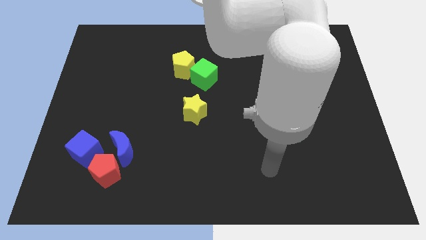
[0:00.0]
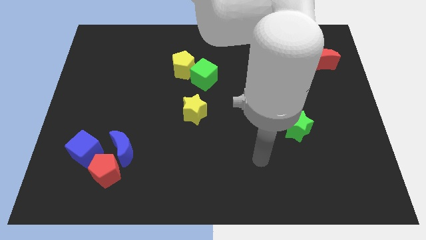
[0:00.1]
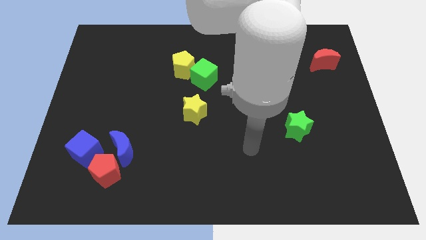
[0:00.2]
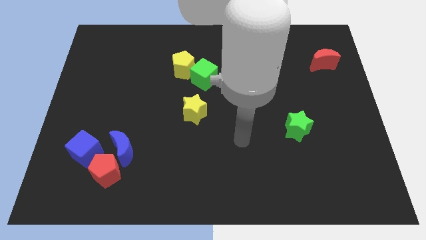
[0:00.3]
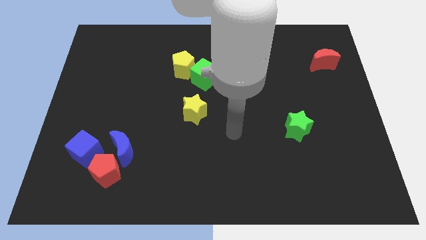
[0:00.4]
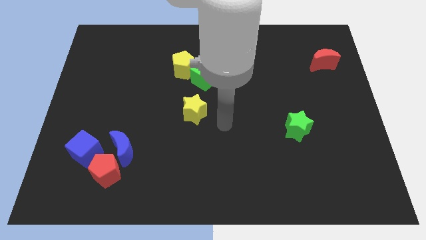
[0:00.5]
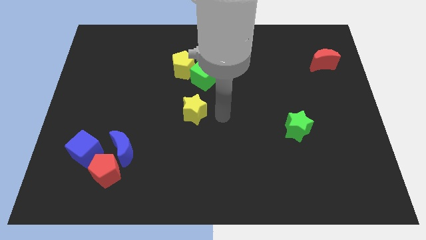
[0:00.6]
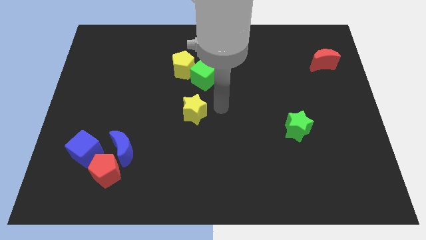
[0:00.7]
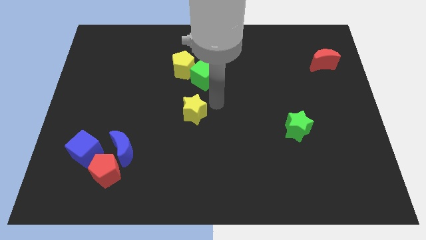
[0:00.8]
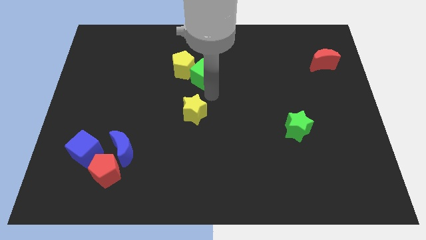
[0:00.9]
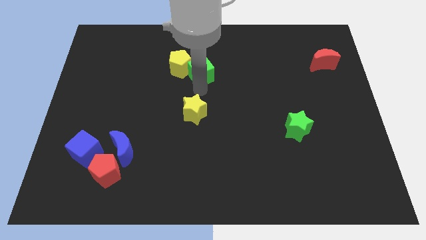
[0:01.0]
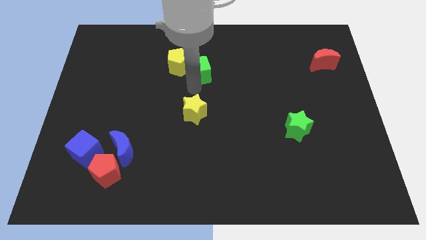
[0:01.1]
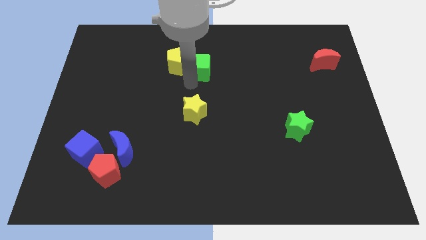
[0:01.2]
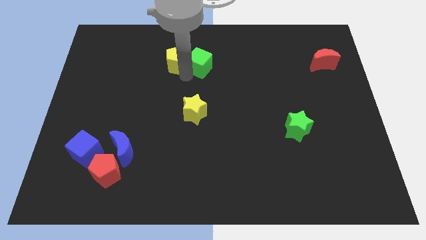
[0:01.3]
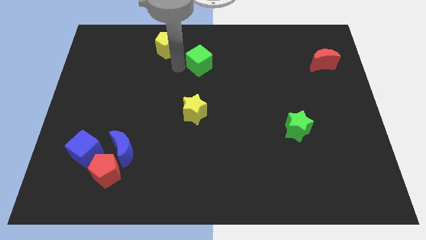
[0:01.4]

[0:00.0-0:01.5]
separate the green cube from the yellow pentagon

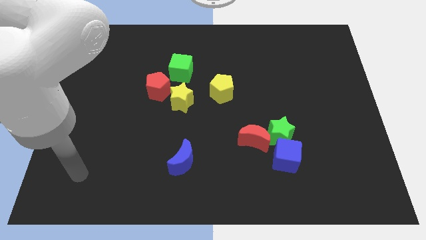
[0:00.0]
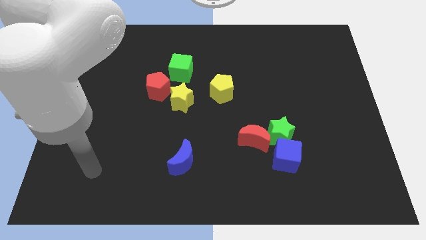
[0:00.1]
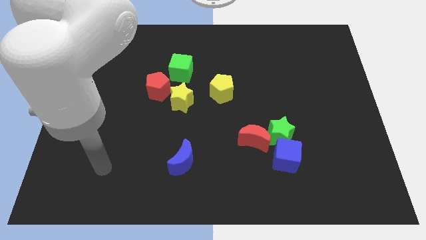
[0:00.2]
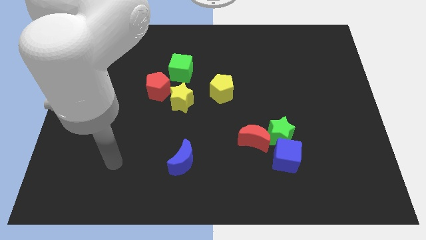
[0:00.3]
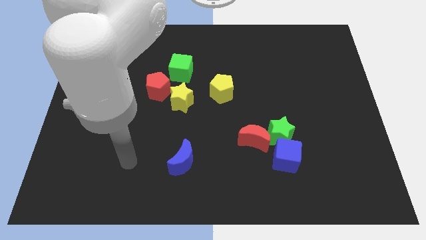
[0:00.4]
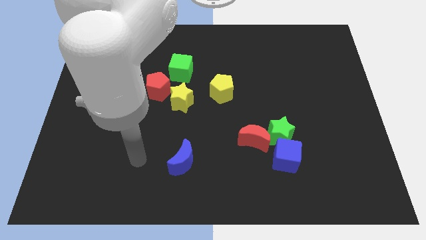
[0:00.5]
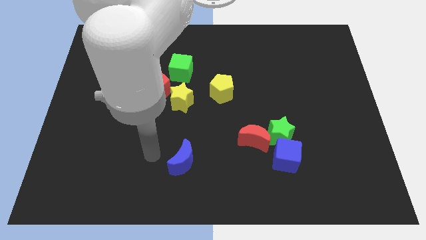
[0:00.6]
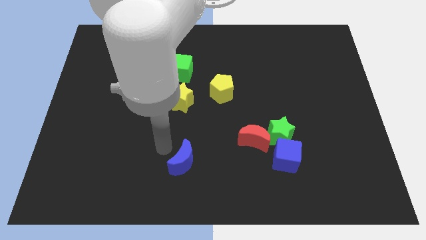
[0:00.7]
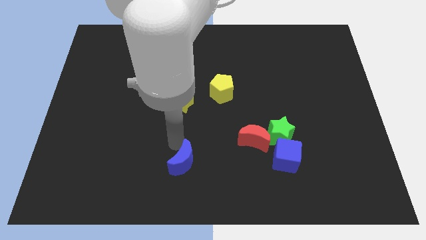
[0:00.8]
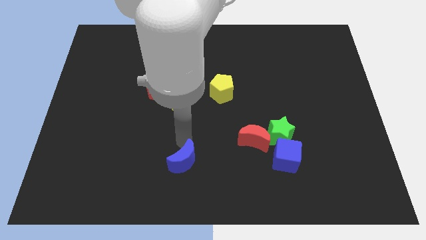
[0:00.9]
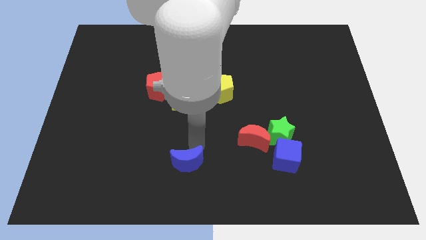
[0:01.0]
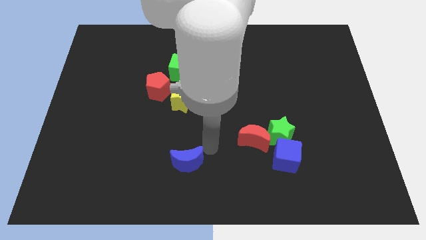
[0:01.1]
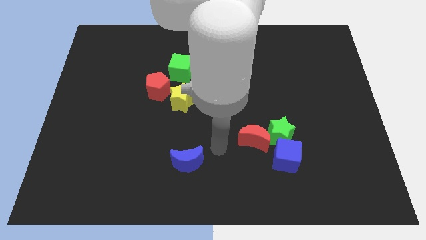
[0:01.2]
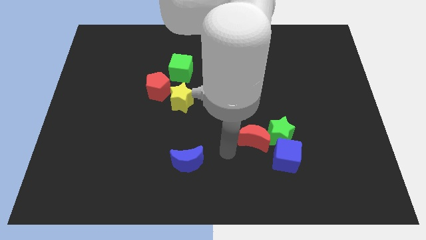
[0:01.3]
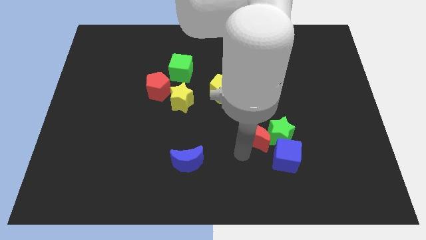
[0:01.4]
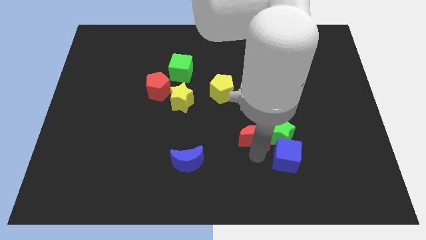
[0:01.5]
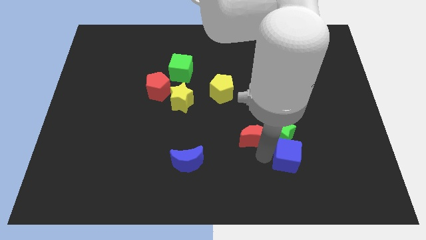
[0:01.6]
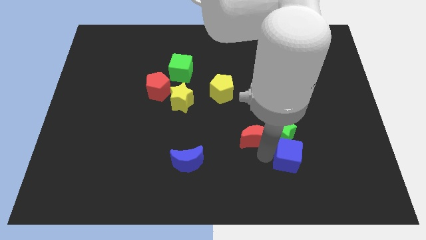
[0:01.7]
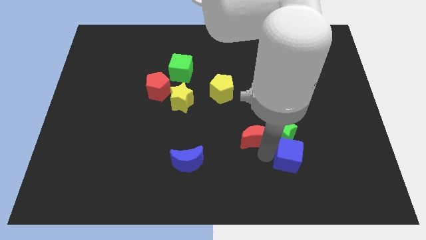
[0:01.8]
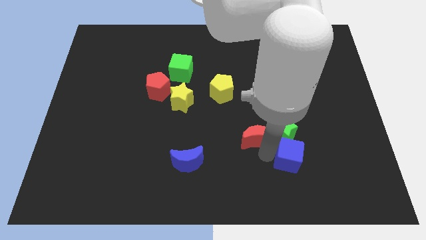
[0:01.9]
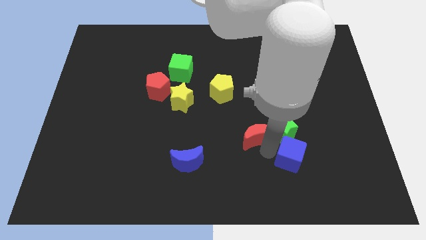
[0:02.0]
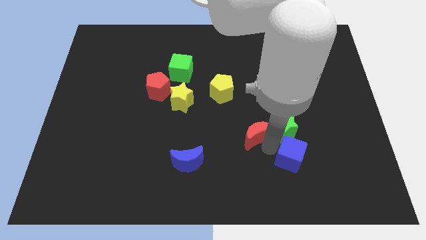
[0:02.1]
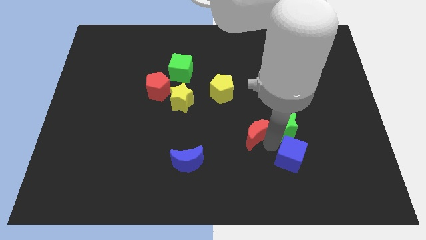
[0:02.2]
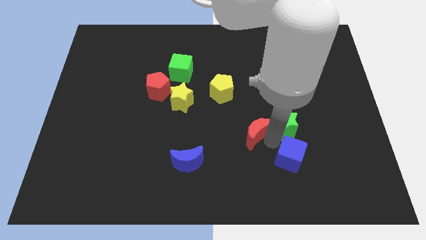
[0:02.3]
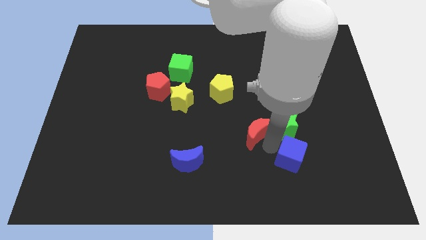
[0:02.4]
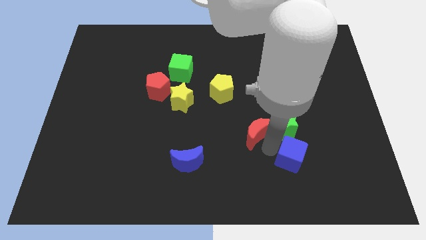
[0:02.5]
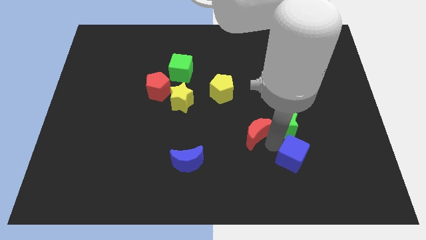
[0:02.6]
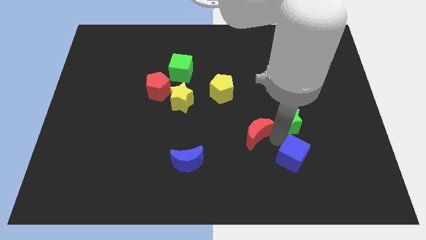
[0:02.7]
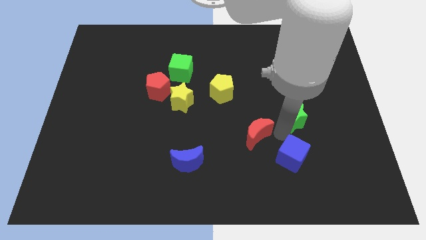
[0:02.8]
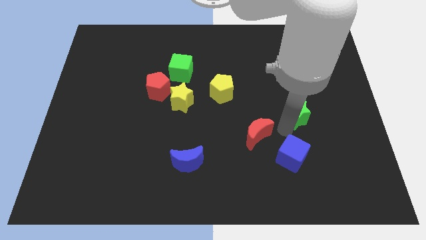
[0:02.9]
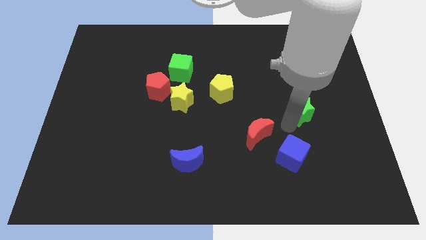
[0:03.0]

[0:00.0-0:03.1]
separate the green star from the blue cube and red moon

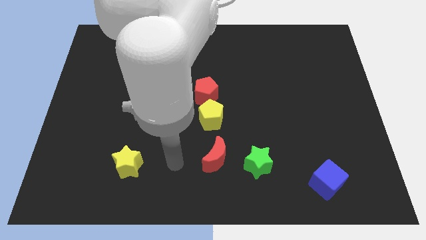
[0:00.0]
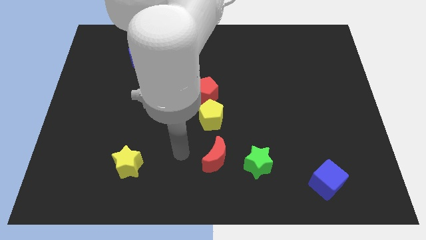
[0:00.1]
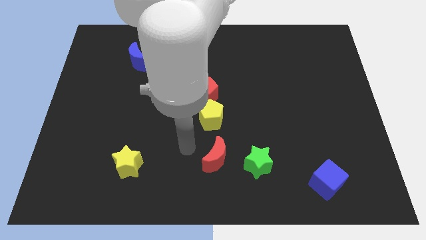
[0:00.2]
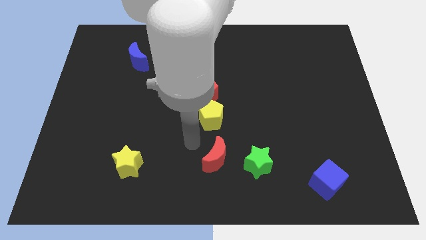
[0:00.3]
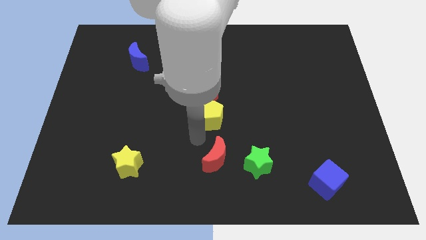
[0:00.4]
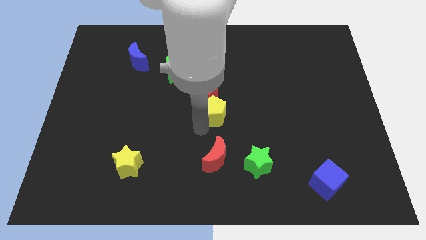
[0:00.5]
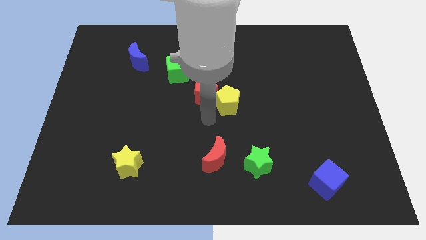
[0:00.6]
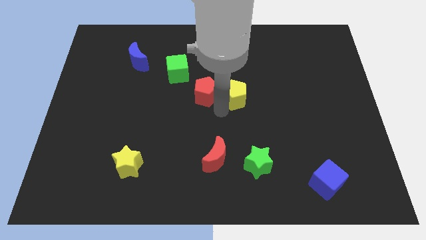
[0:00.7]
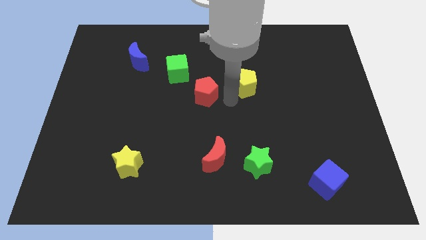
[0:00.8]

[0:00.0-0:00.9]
separate the red pentagon from the yellow pentagon

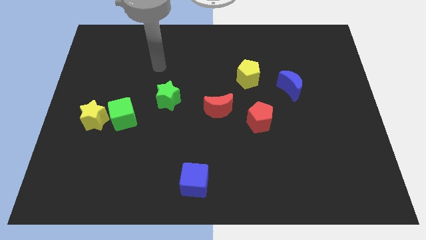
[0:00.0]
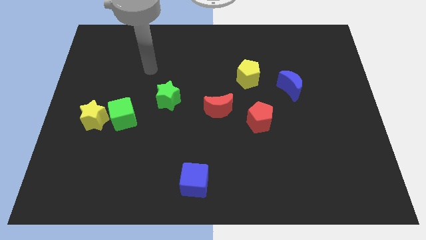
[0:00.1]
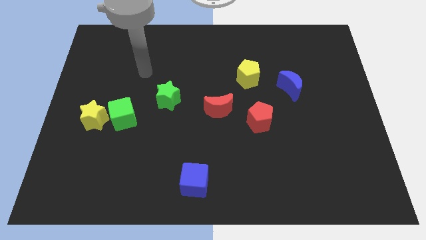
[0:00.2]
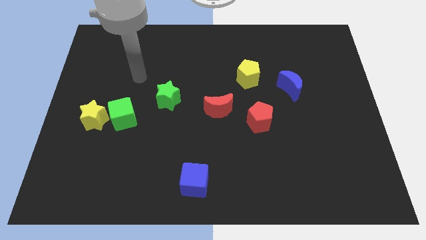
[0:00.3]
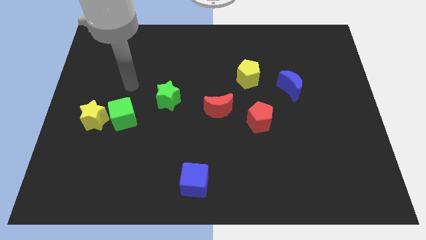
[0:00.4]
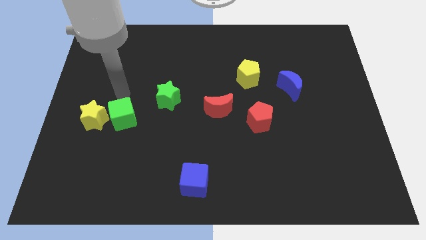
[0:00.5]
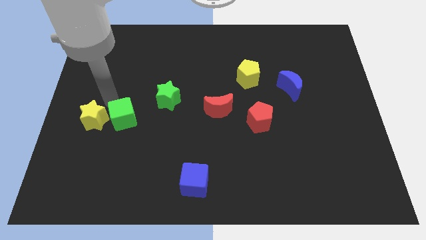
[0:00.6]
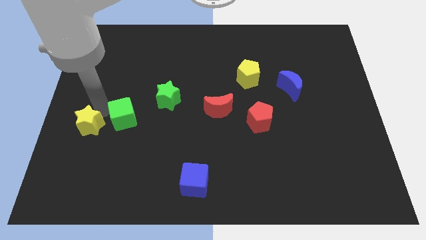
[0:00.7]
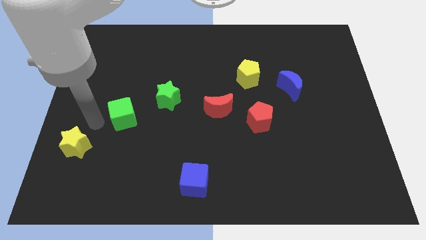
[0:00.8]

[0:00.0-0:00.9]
pull the green cube apart from the yellow star

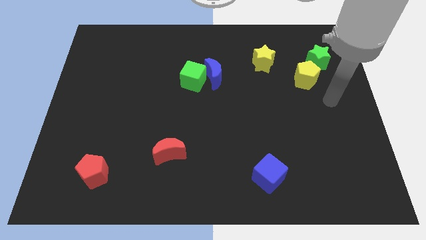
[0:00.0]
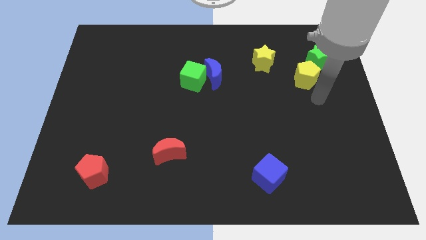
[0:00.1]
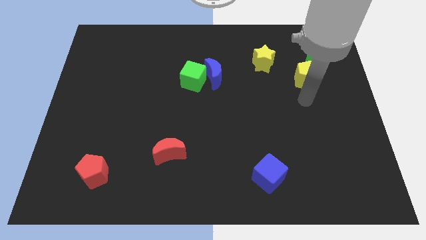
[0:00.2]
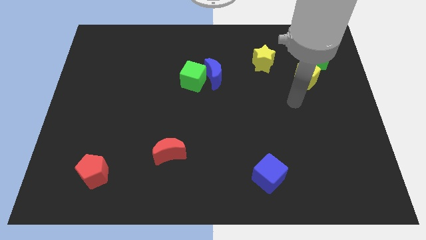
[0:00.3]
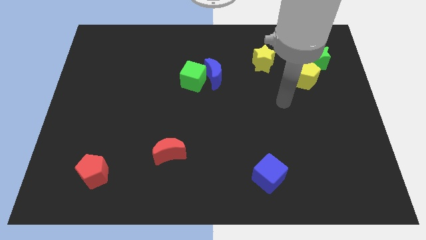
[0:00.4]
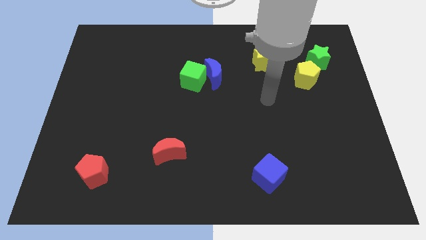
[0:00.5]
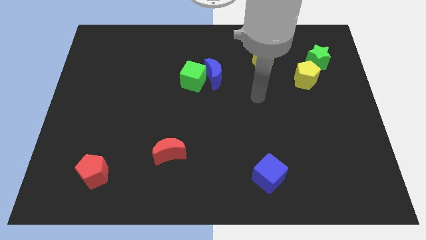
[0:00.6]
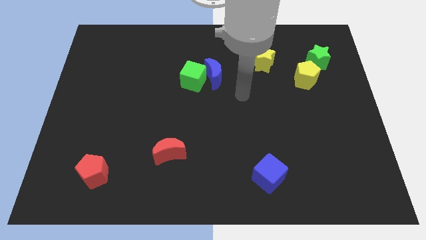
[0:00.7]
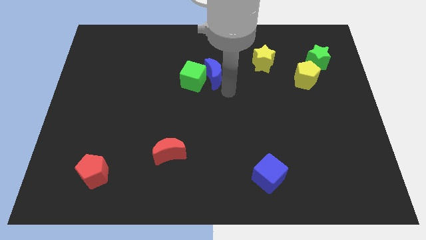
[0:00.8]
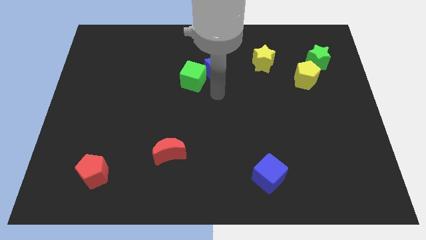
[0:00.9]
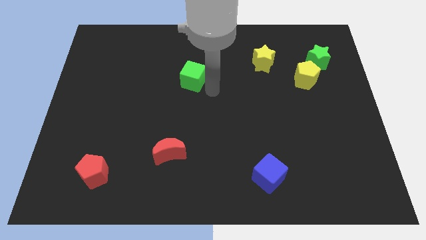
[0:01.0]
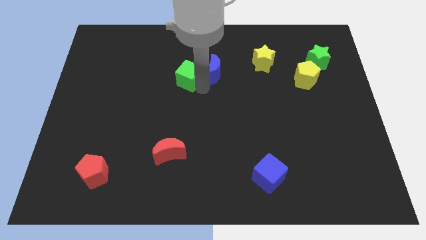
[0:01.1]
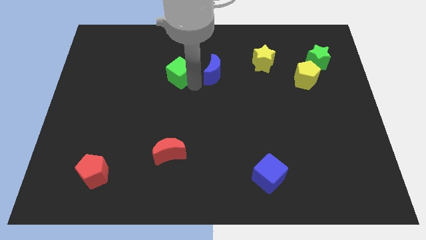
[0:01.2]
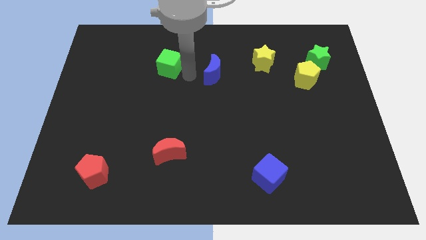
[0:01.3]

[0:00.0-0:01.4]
pull the blue moon apart from the green cube

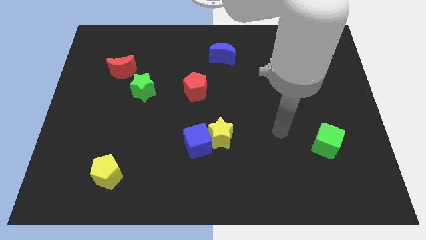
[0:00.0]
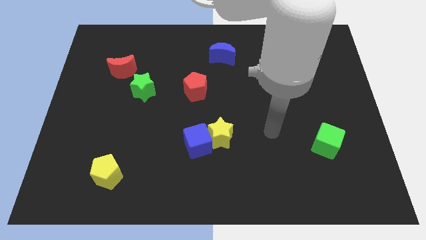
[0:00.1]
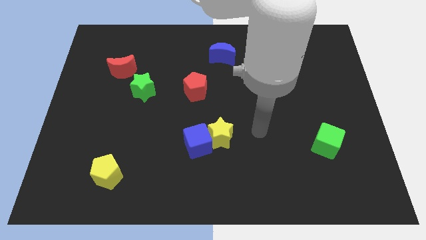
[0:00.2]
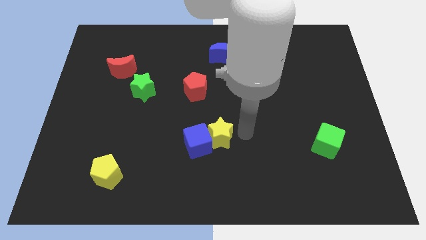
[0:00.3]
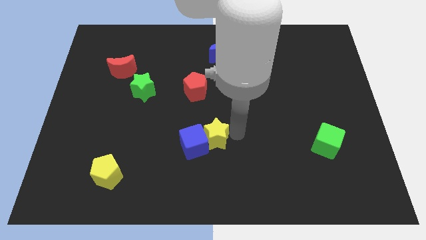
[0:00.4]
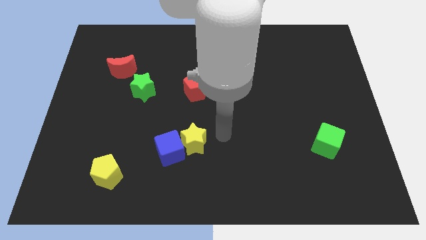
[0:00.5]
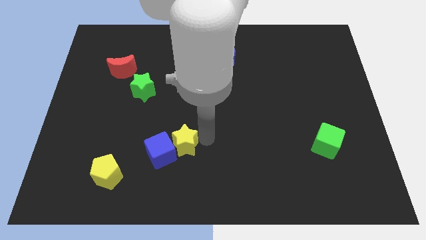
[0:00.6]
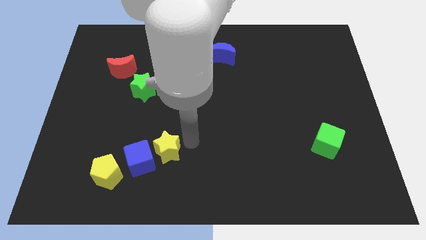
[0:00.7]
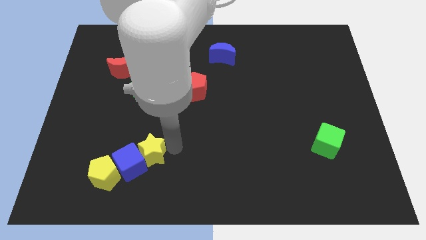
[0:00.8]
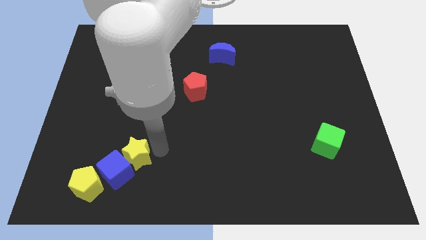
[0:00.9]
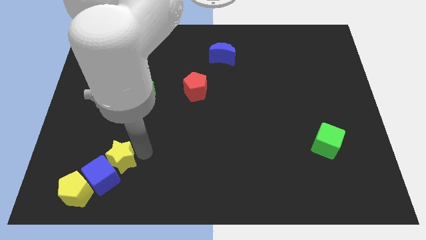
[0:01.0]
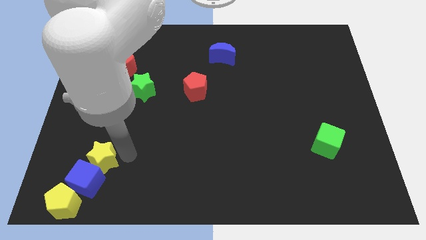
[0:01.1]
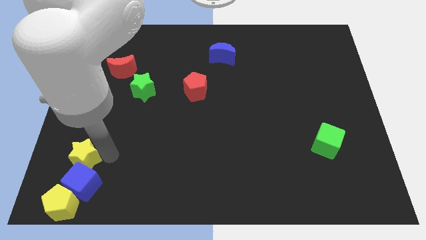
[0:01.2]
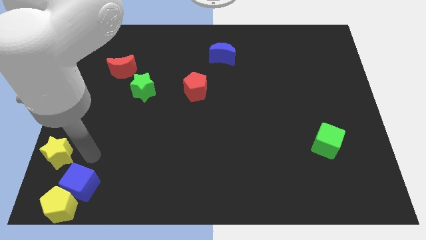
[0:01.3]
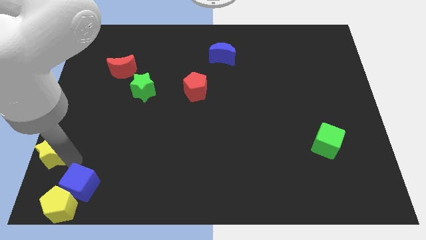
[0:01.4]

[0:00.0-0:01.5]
pull the blue cube apart from the yellow star
